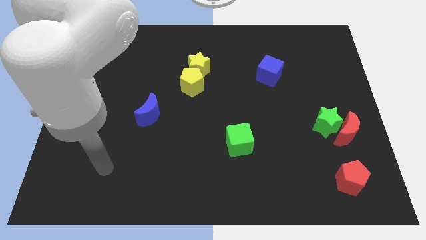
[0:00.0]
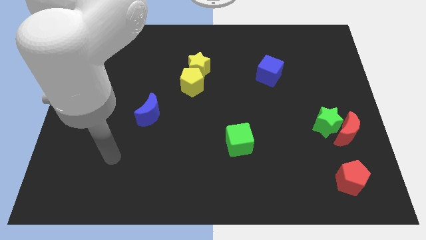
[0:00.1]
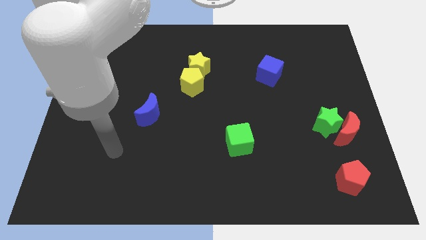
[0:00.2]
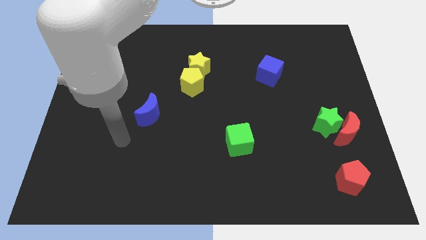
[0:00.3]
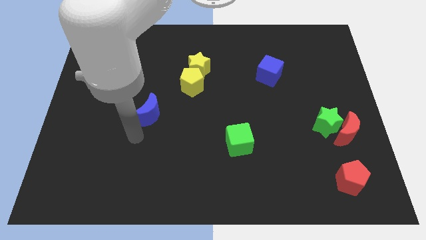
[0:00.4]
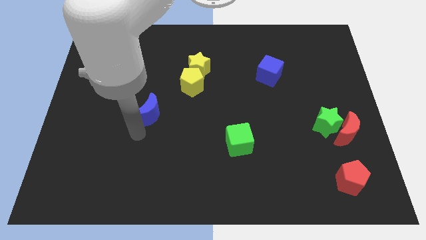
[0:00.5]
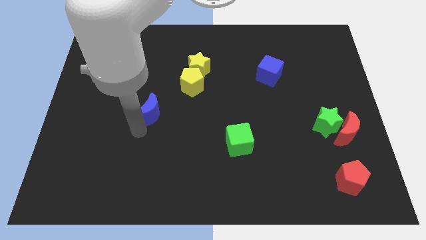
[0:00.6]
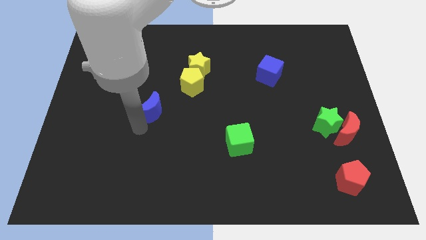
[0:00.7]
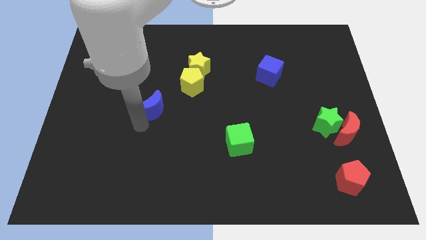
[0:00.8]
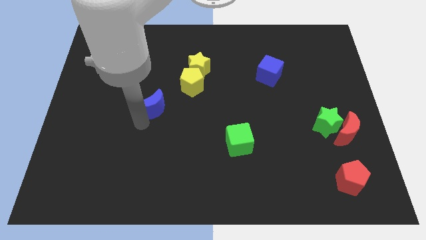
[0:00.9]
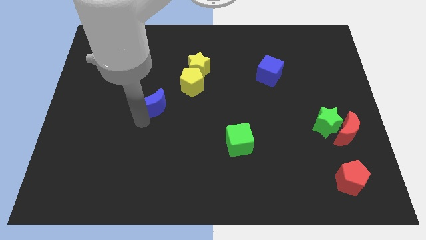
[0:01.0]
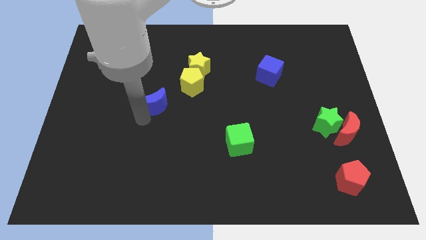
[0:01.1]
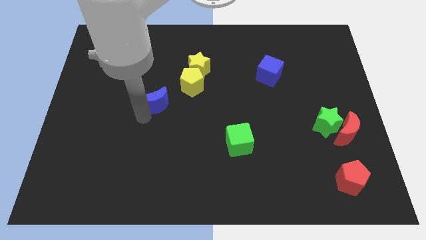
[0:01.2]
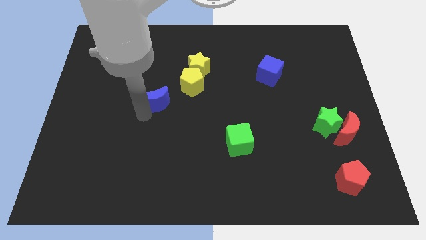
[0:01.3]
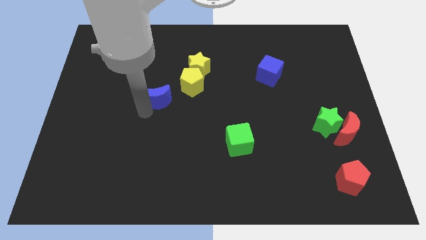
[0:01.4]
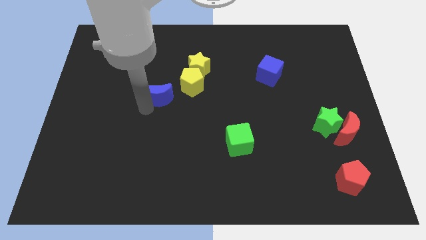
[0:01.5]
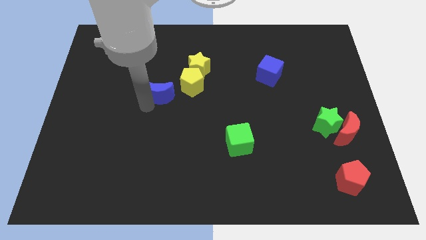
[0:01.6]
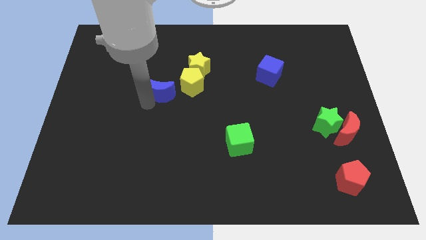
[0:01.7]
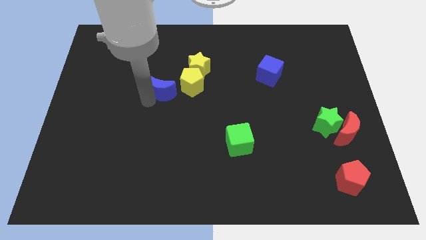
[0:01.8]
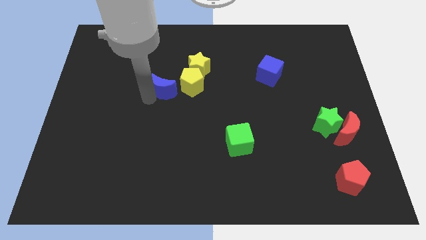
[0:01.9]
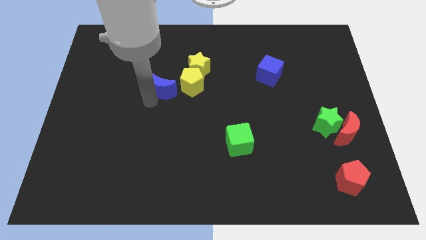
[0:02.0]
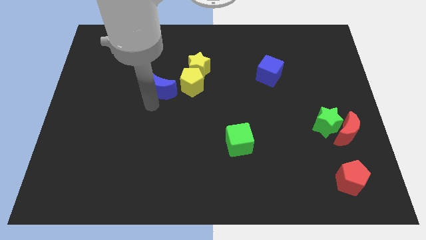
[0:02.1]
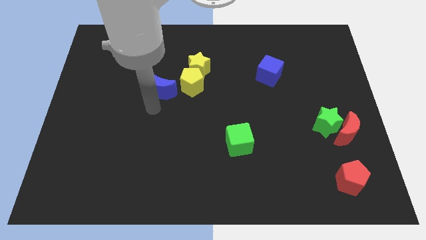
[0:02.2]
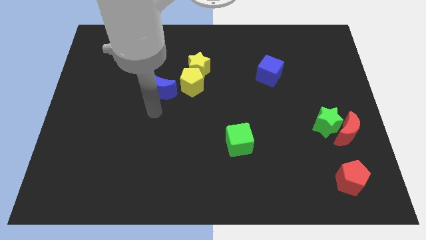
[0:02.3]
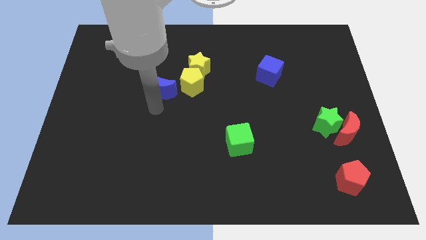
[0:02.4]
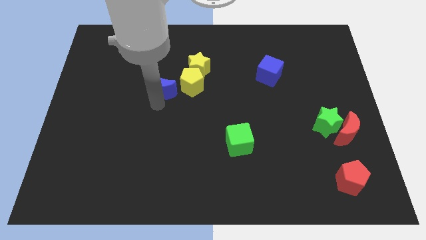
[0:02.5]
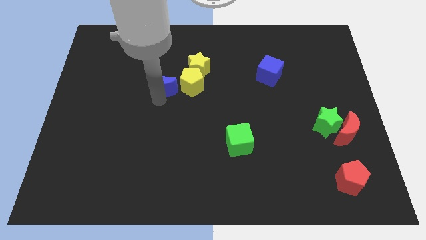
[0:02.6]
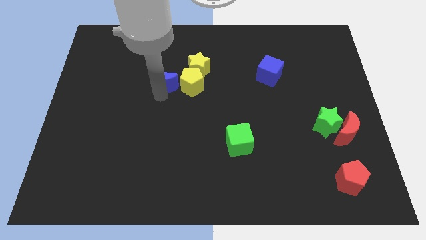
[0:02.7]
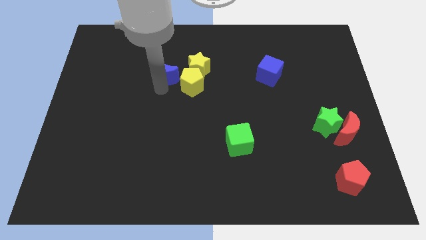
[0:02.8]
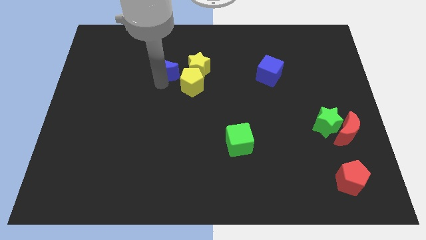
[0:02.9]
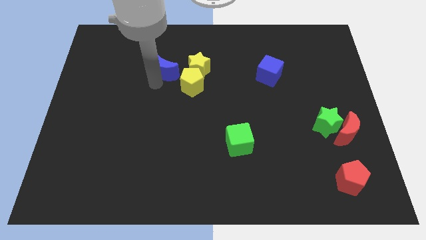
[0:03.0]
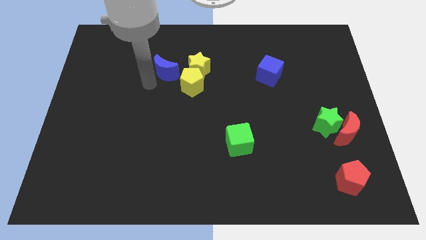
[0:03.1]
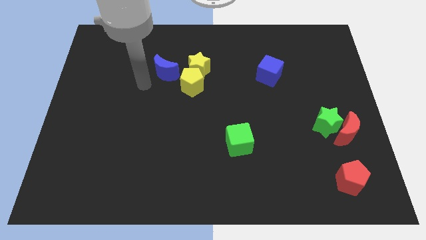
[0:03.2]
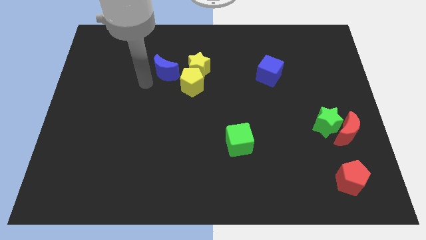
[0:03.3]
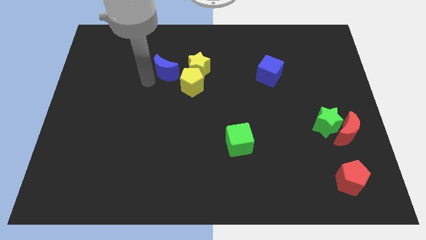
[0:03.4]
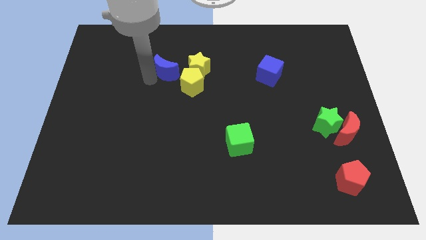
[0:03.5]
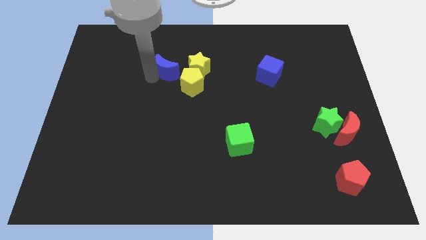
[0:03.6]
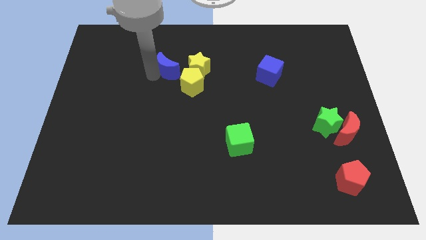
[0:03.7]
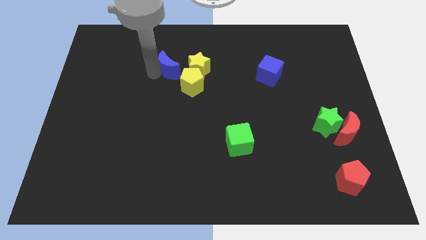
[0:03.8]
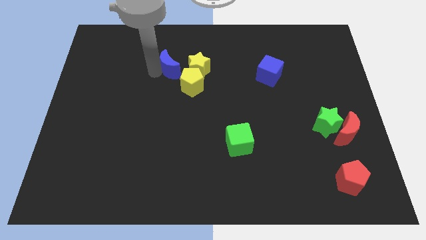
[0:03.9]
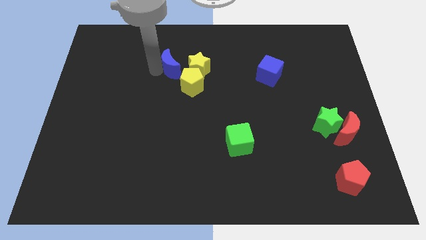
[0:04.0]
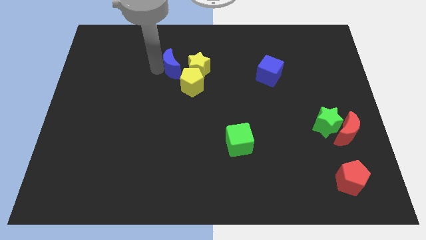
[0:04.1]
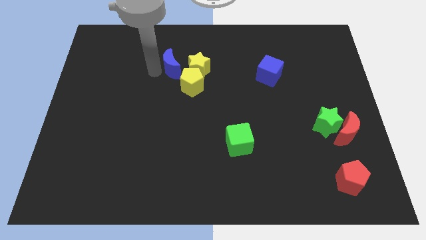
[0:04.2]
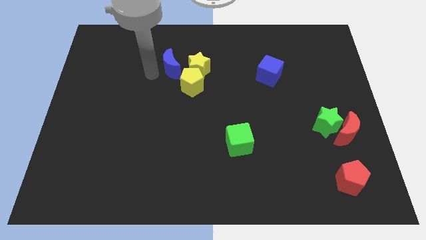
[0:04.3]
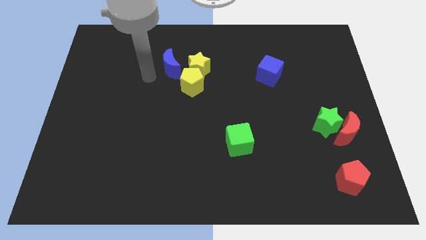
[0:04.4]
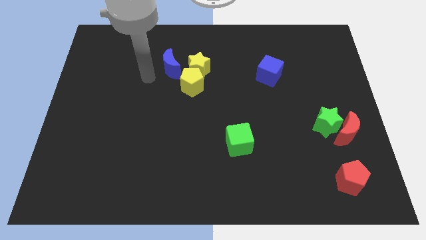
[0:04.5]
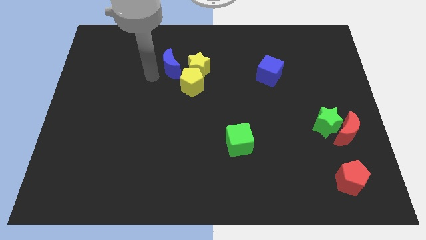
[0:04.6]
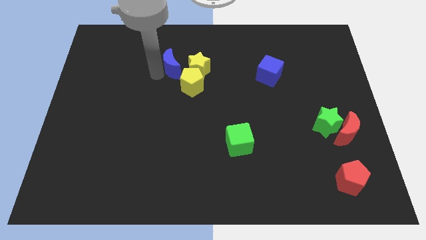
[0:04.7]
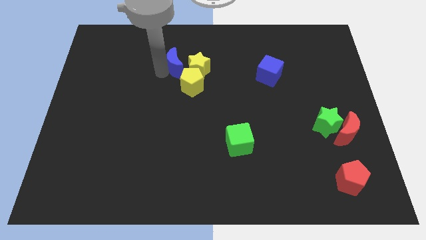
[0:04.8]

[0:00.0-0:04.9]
move the blue moon to the top of the yellow pentagon

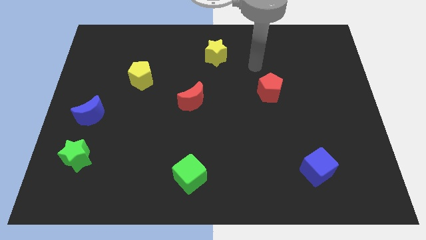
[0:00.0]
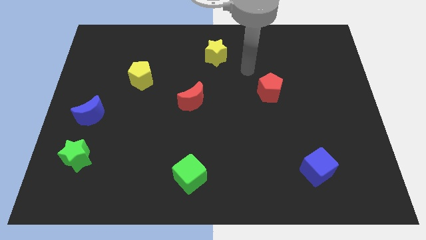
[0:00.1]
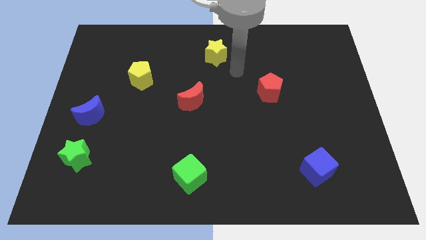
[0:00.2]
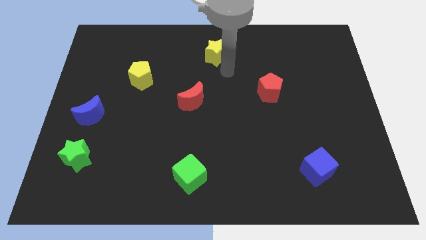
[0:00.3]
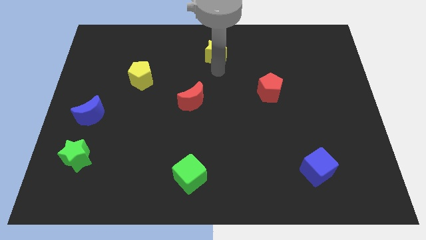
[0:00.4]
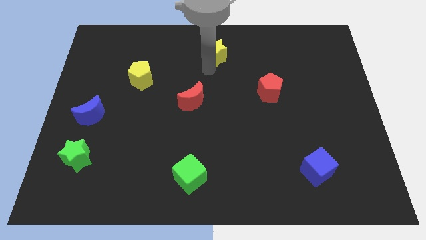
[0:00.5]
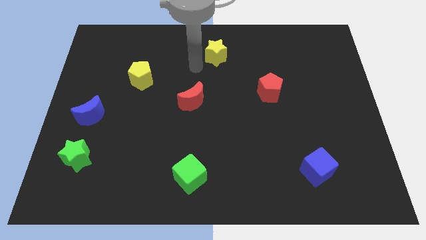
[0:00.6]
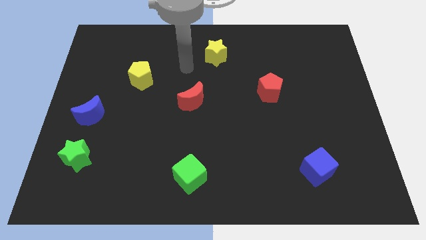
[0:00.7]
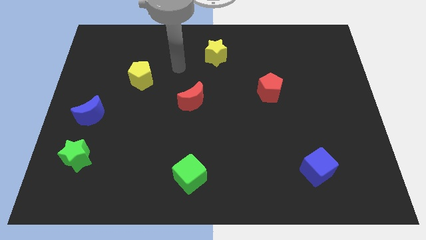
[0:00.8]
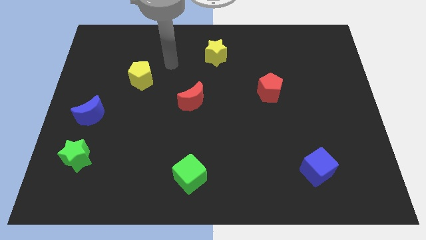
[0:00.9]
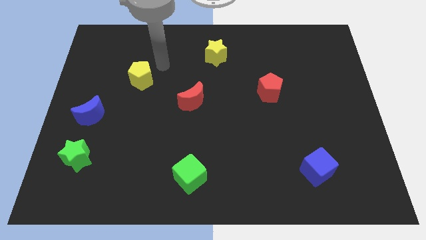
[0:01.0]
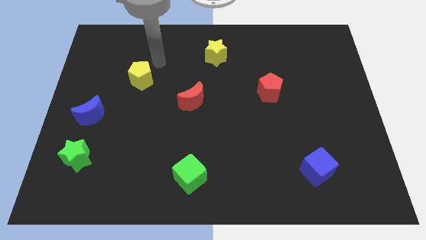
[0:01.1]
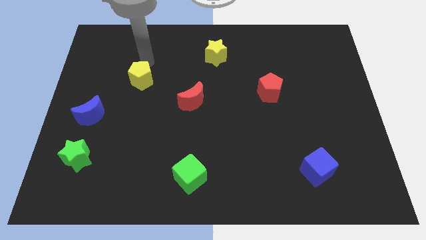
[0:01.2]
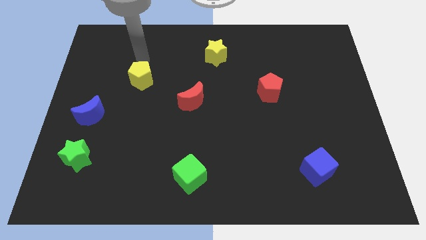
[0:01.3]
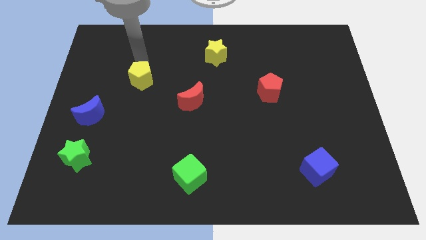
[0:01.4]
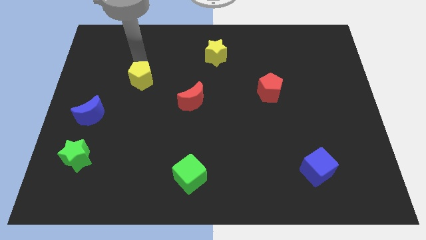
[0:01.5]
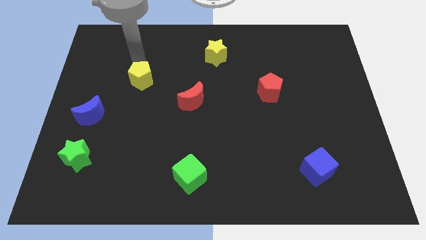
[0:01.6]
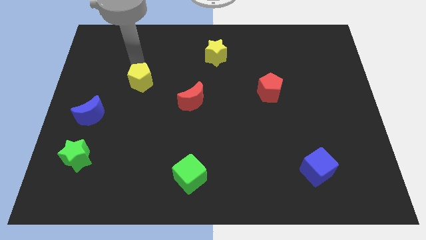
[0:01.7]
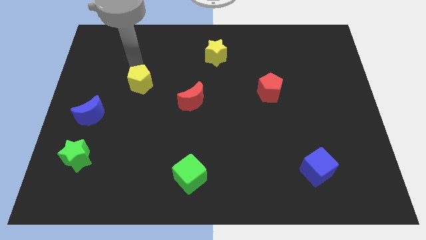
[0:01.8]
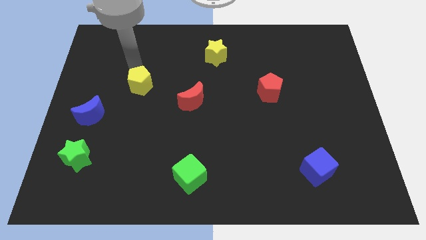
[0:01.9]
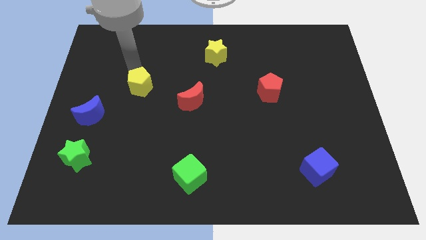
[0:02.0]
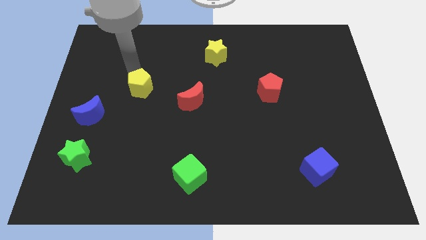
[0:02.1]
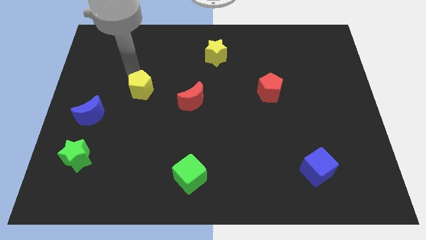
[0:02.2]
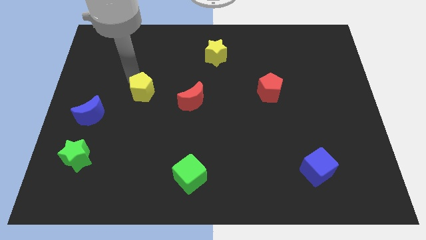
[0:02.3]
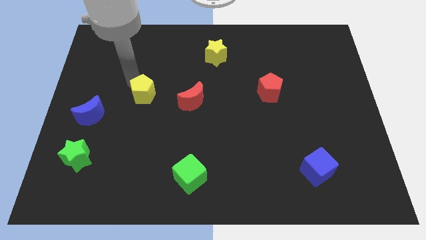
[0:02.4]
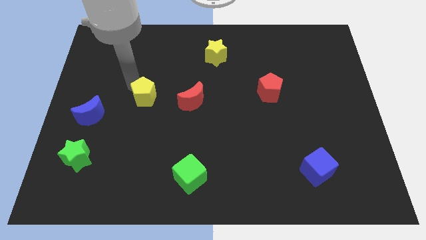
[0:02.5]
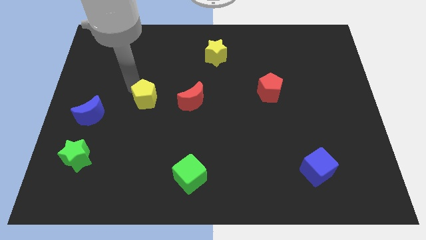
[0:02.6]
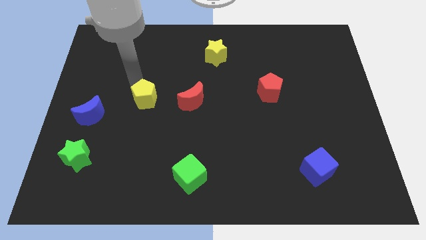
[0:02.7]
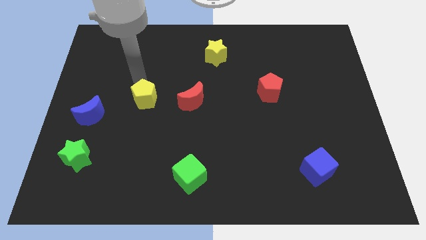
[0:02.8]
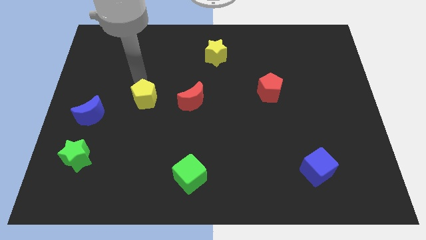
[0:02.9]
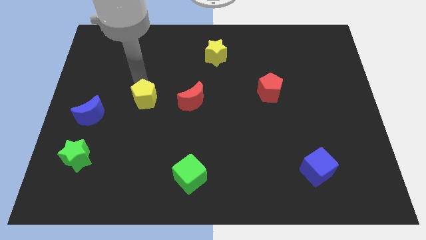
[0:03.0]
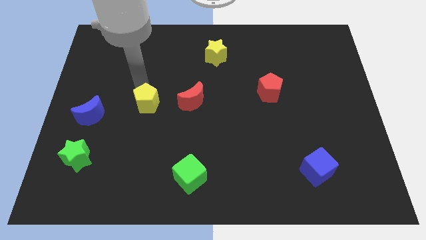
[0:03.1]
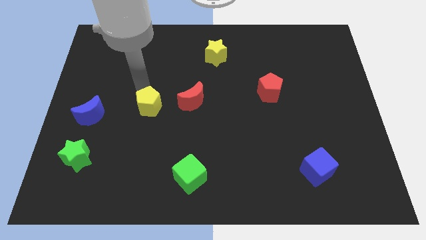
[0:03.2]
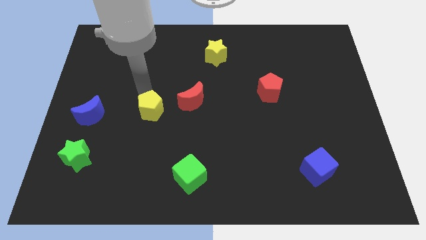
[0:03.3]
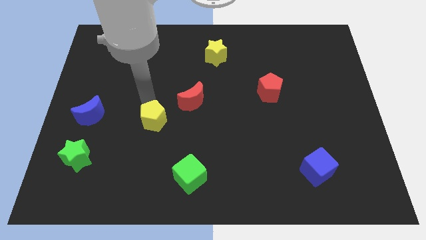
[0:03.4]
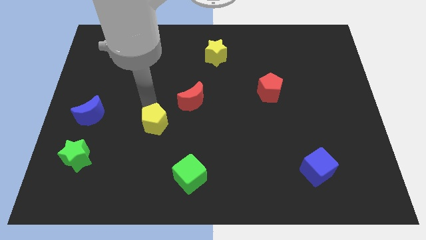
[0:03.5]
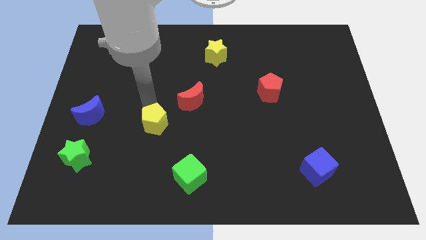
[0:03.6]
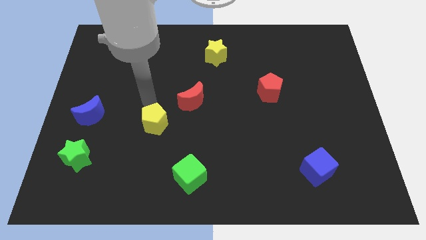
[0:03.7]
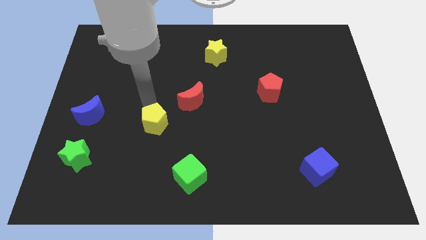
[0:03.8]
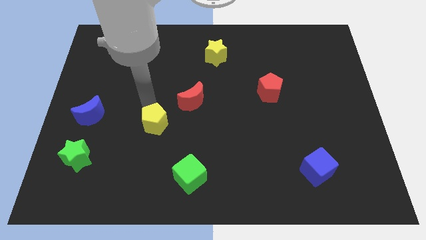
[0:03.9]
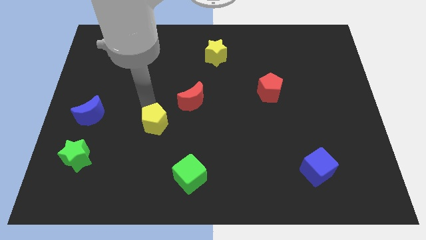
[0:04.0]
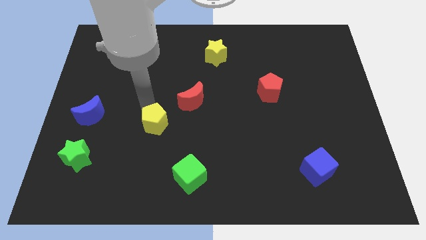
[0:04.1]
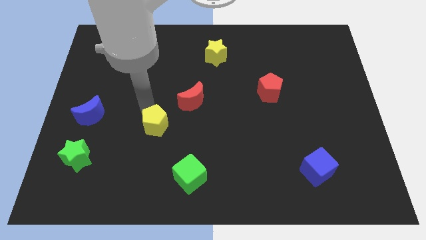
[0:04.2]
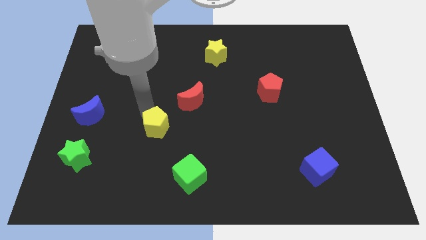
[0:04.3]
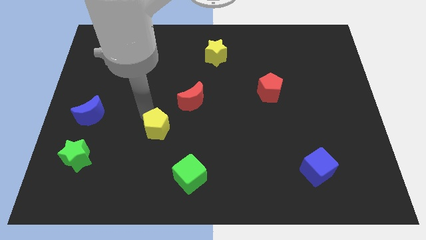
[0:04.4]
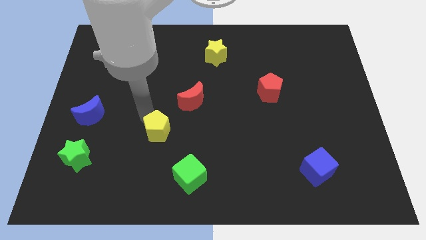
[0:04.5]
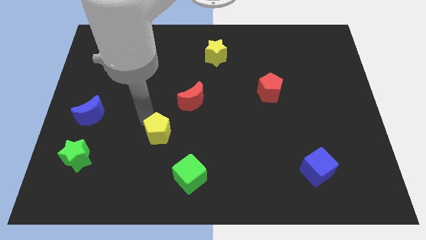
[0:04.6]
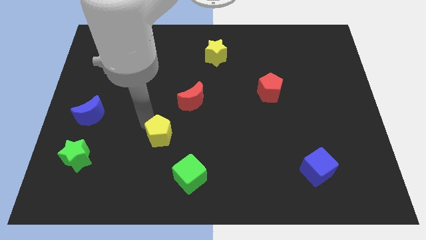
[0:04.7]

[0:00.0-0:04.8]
slide the yellow pentagon diagonally up and to the left of the green cube
